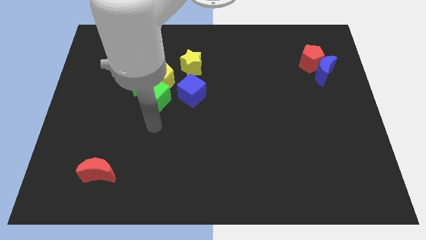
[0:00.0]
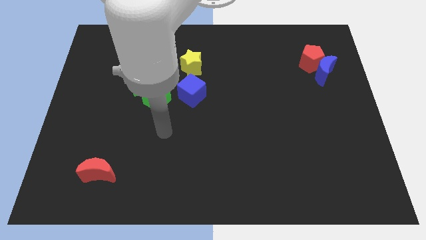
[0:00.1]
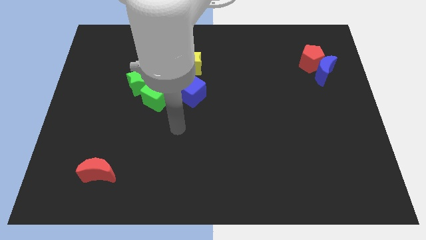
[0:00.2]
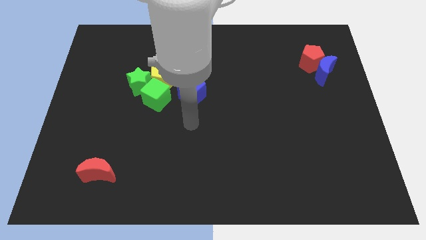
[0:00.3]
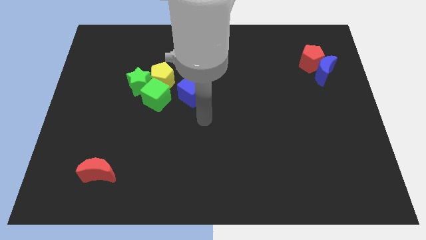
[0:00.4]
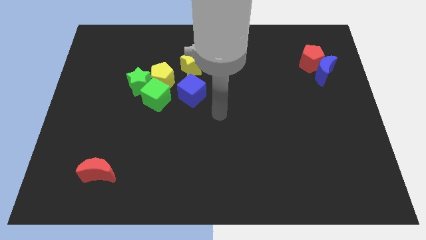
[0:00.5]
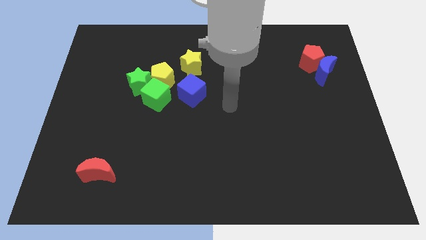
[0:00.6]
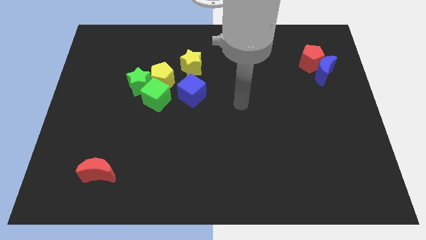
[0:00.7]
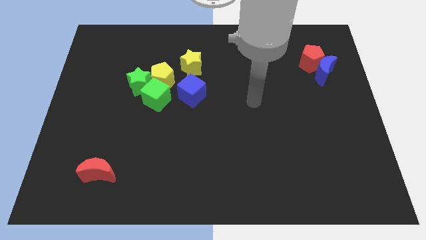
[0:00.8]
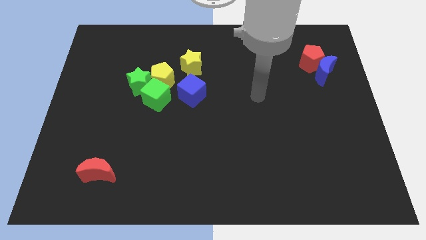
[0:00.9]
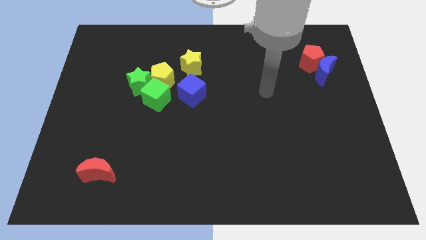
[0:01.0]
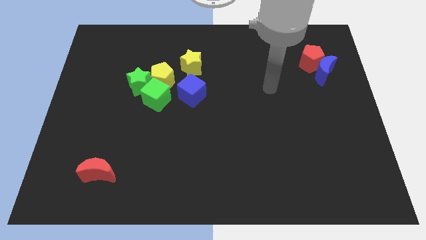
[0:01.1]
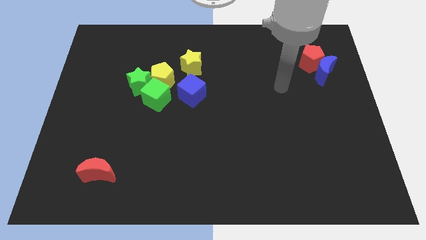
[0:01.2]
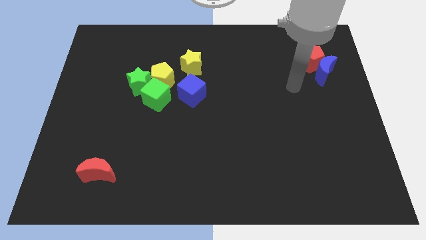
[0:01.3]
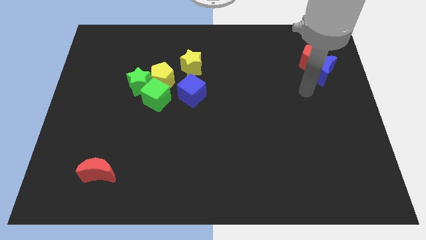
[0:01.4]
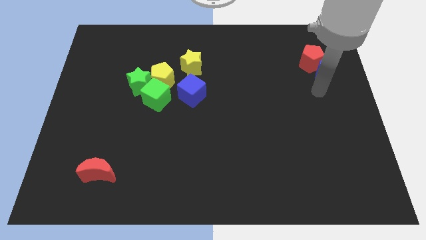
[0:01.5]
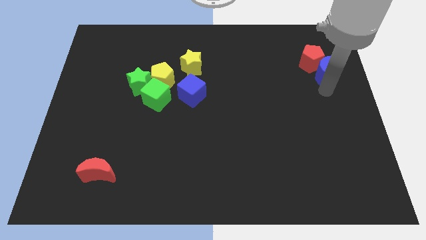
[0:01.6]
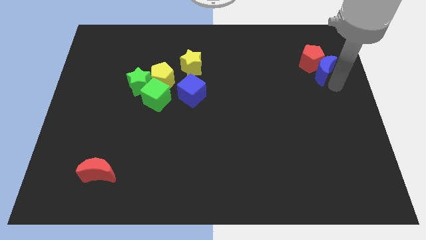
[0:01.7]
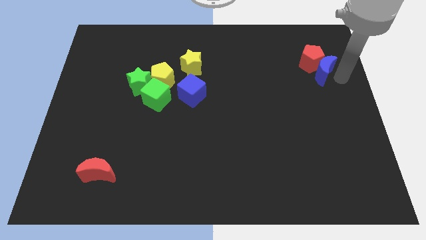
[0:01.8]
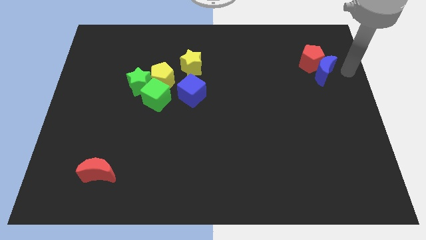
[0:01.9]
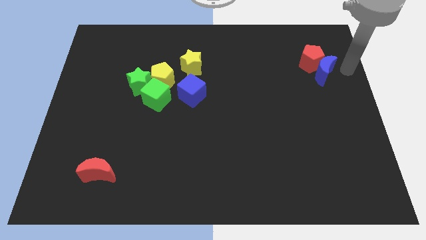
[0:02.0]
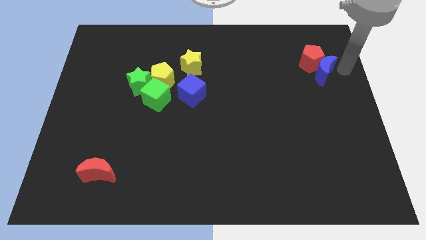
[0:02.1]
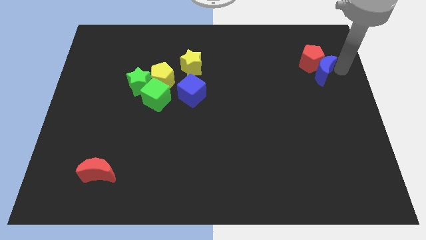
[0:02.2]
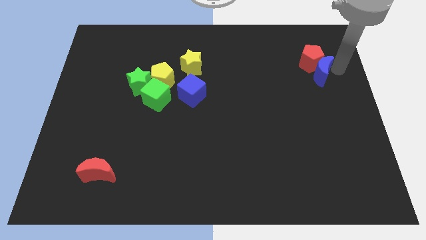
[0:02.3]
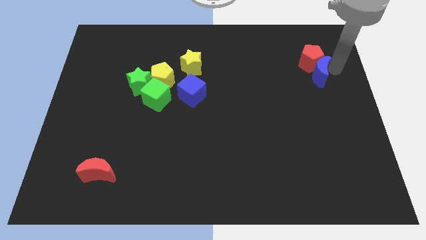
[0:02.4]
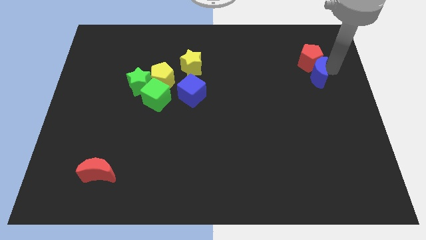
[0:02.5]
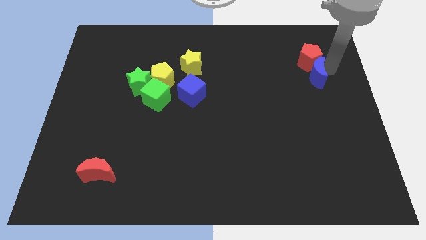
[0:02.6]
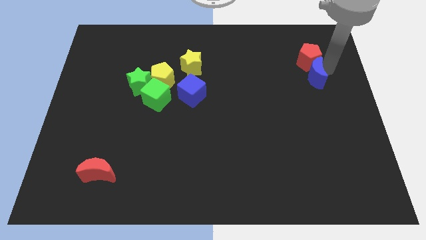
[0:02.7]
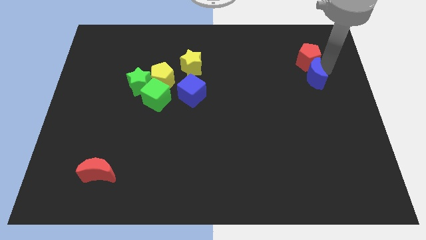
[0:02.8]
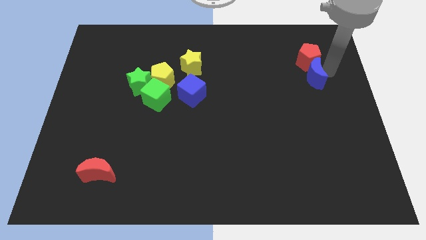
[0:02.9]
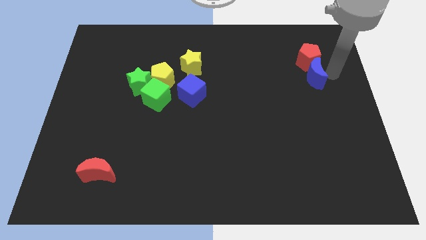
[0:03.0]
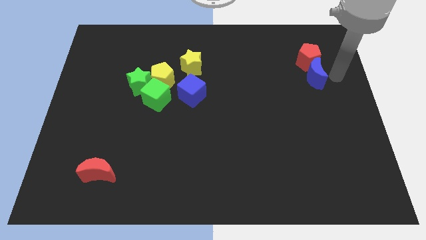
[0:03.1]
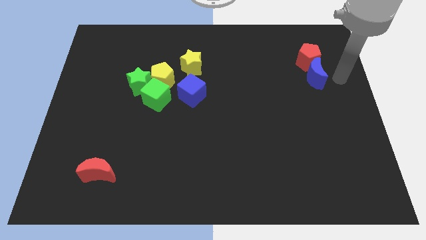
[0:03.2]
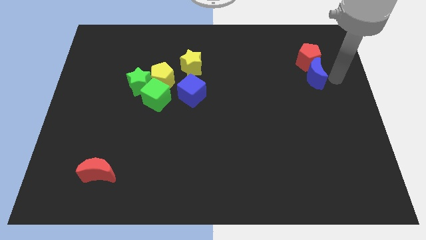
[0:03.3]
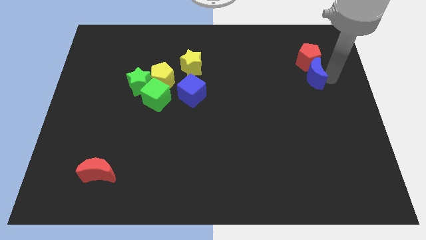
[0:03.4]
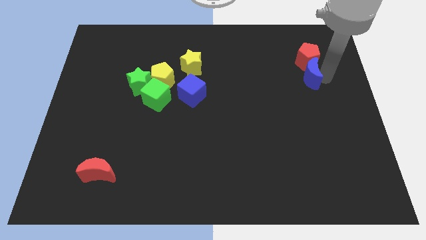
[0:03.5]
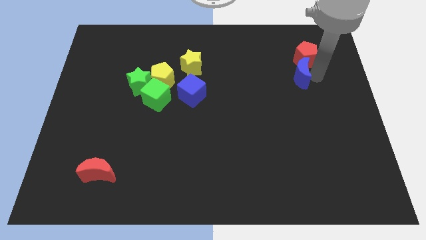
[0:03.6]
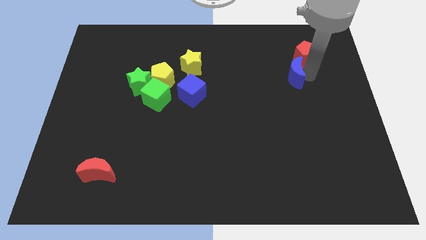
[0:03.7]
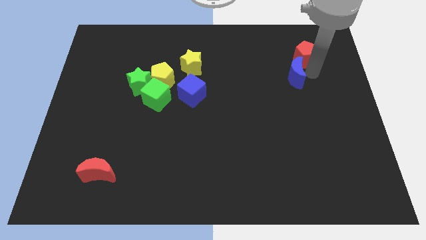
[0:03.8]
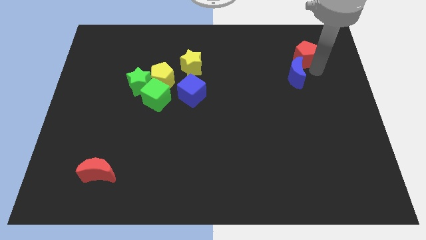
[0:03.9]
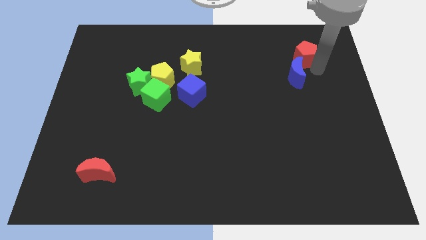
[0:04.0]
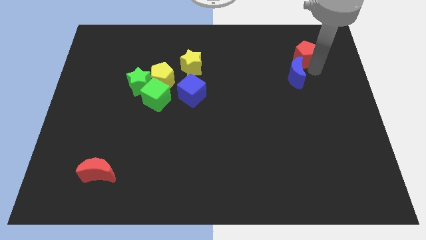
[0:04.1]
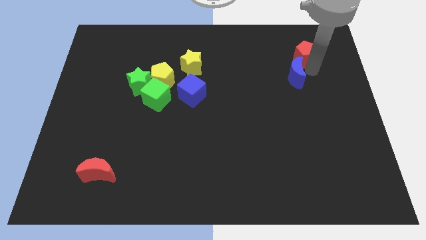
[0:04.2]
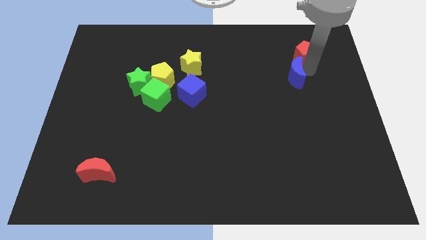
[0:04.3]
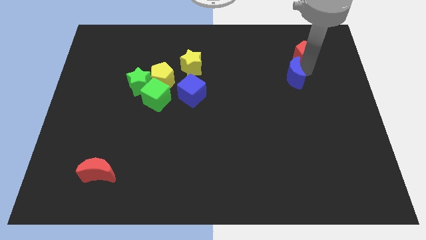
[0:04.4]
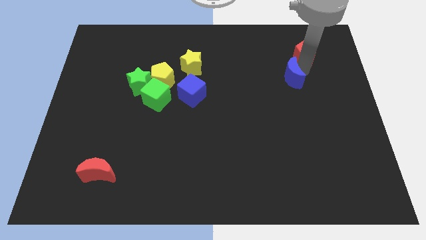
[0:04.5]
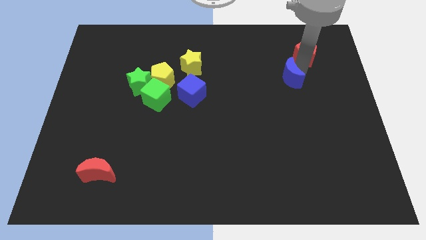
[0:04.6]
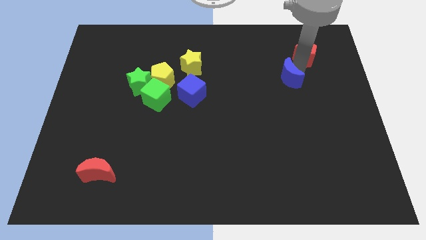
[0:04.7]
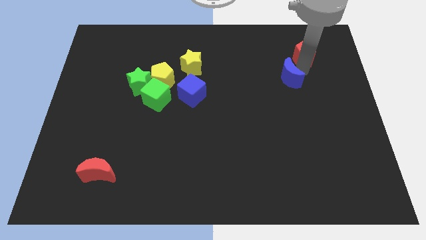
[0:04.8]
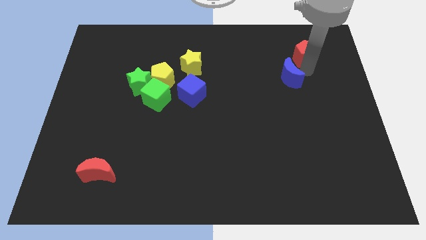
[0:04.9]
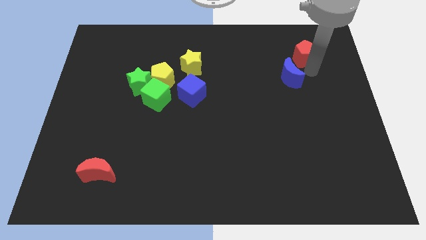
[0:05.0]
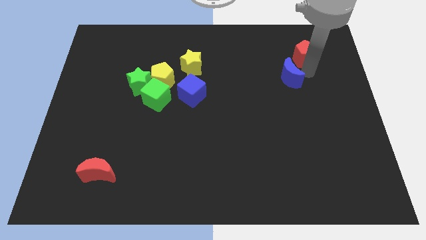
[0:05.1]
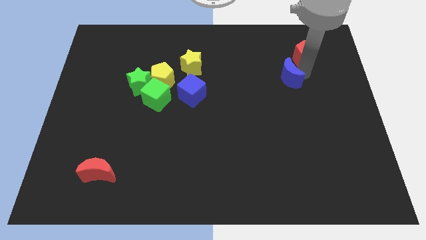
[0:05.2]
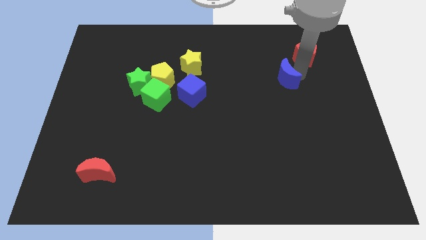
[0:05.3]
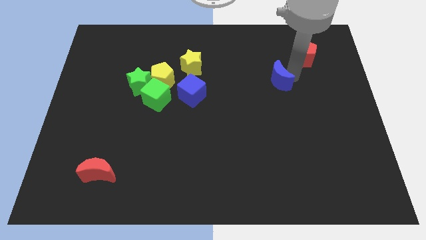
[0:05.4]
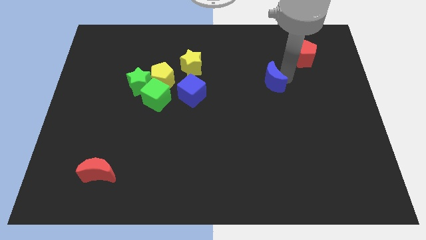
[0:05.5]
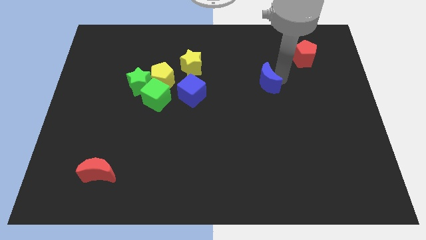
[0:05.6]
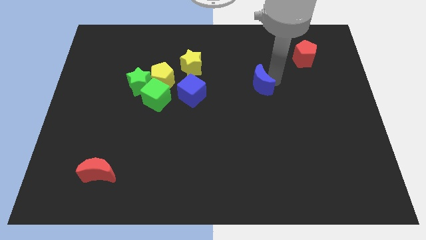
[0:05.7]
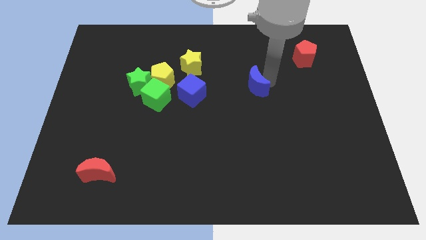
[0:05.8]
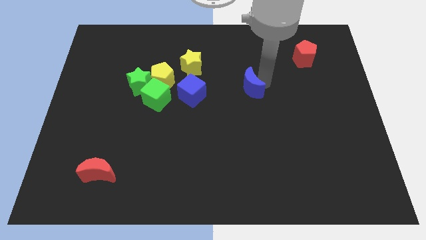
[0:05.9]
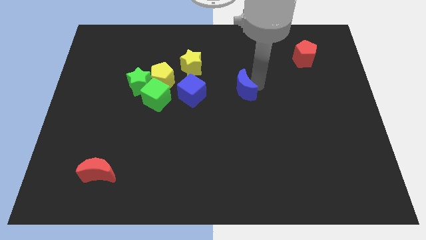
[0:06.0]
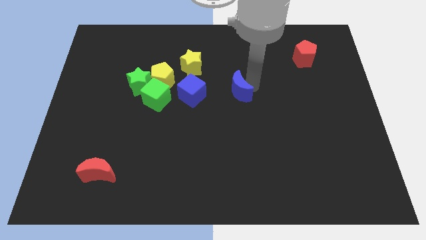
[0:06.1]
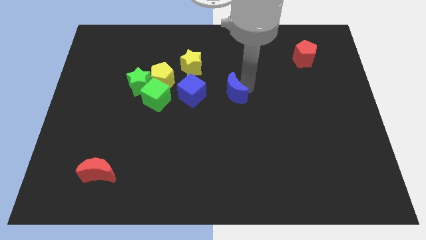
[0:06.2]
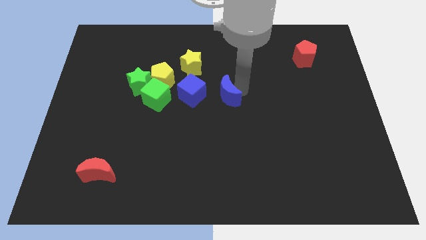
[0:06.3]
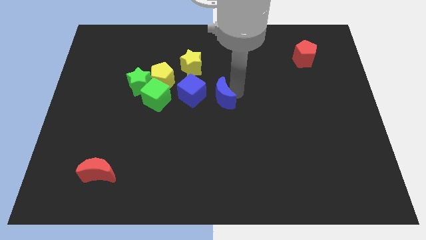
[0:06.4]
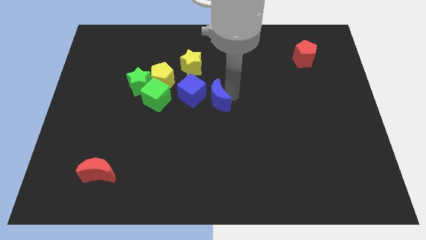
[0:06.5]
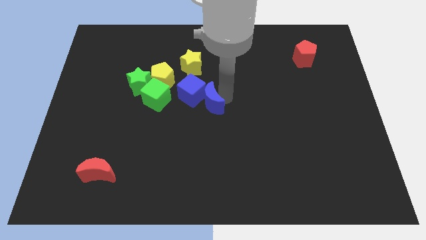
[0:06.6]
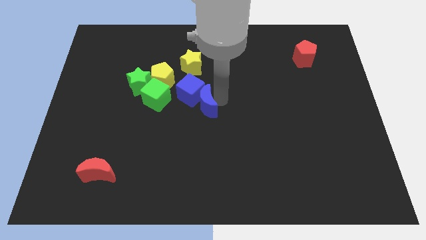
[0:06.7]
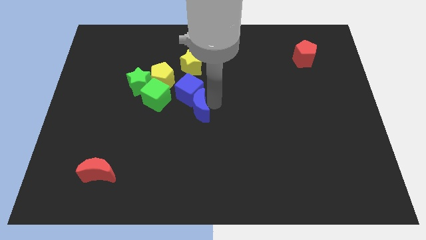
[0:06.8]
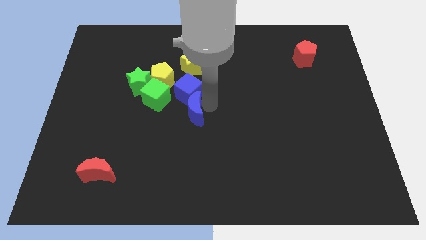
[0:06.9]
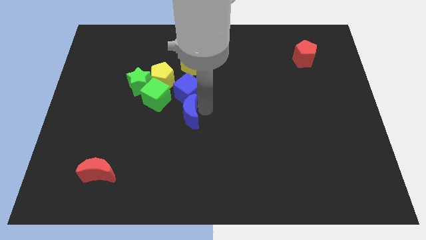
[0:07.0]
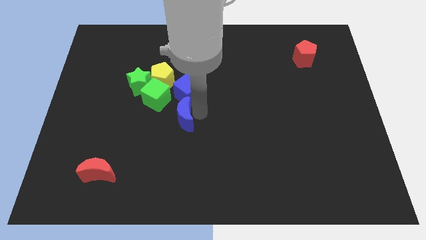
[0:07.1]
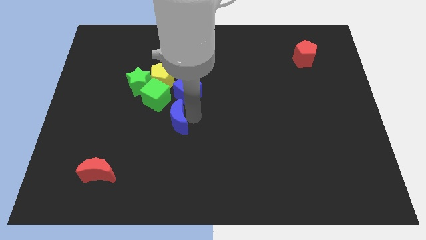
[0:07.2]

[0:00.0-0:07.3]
push the blue moon to the bottom side of the yellow pentagon
